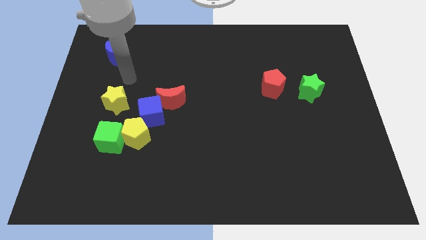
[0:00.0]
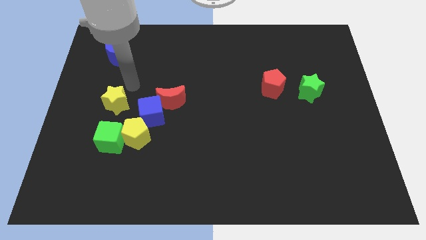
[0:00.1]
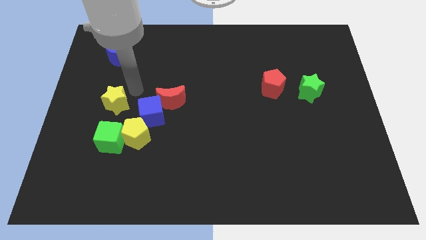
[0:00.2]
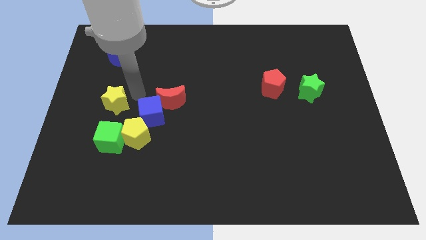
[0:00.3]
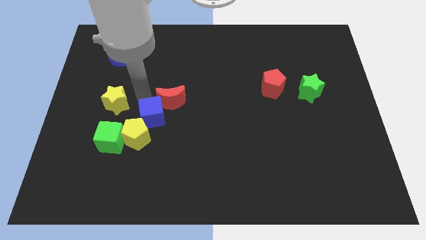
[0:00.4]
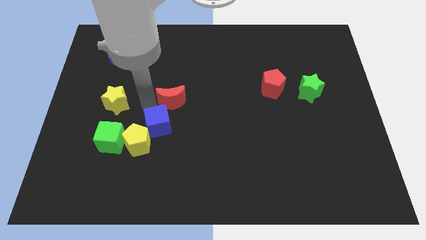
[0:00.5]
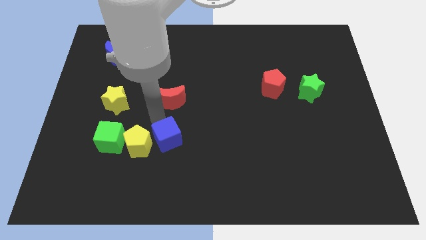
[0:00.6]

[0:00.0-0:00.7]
separate the red moon from the blue cube

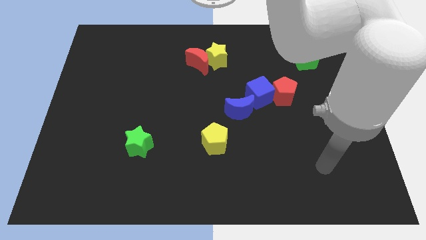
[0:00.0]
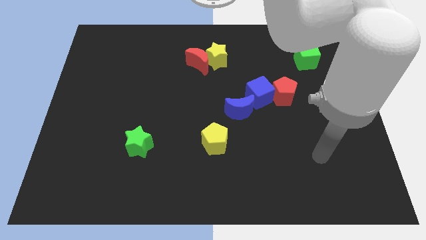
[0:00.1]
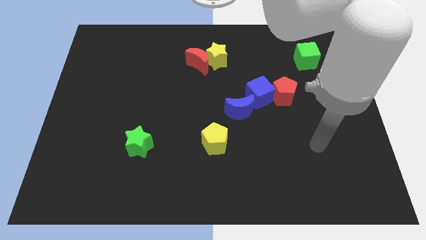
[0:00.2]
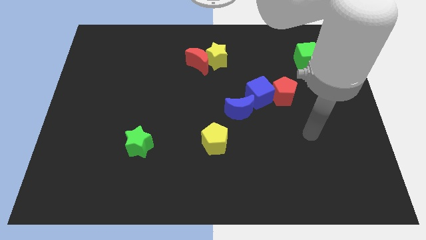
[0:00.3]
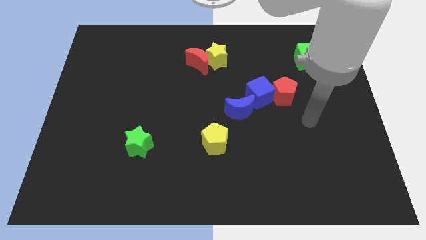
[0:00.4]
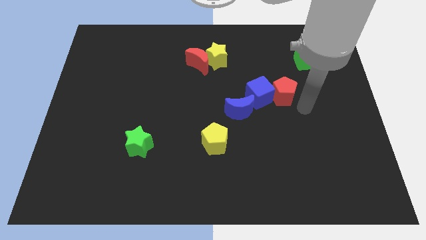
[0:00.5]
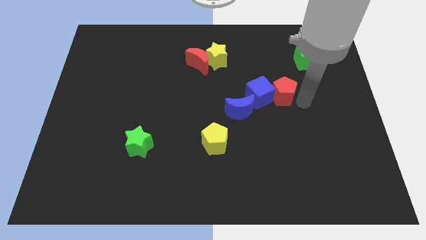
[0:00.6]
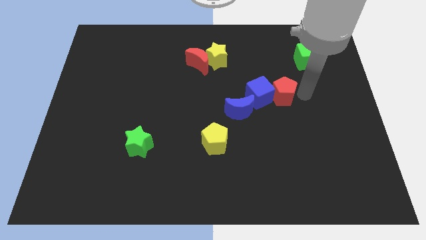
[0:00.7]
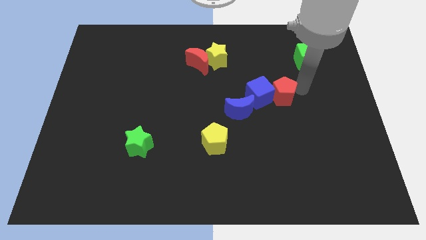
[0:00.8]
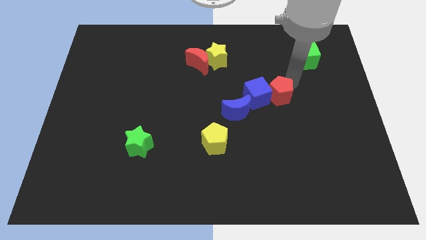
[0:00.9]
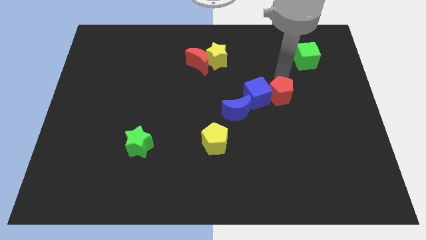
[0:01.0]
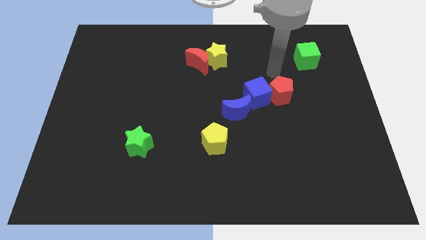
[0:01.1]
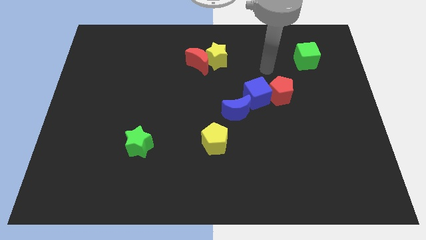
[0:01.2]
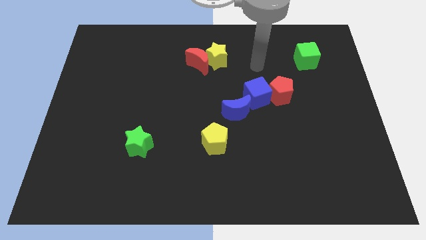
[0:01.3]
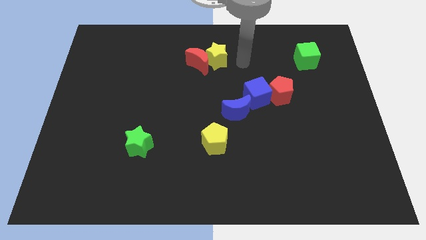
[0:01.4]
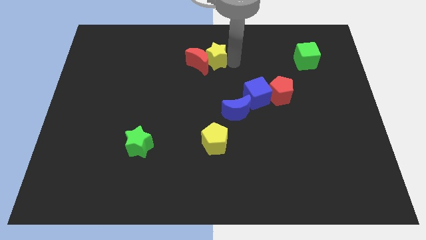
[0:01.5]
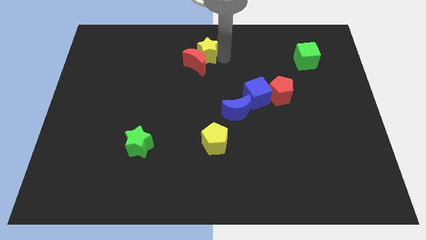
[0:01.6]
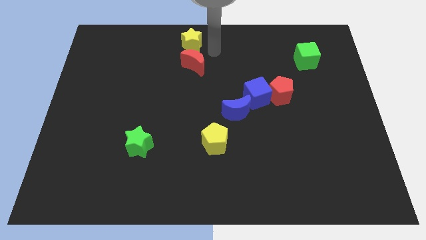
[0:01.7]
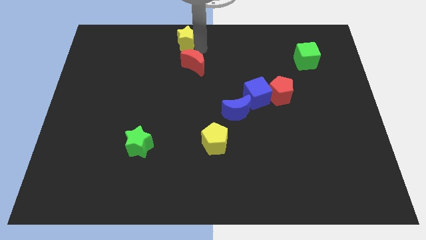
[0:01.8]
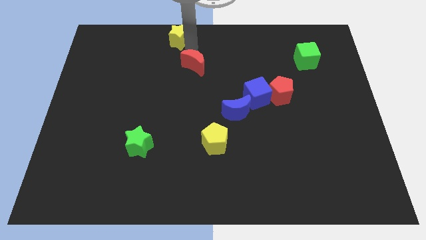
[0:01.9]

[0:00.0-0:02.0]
separate the red moon from the yellow star

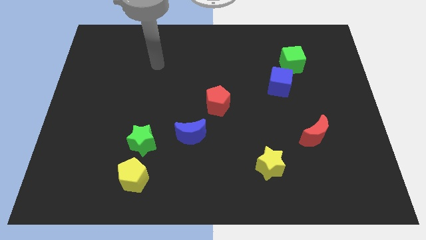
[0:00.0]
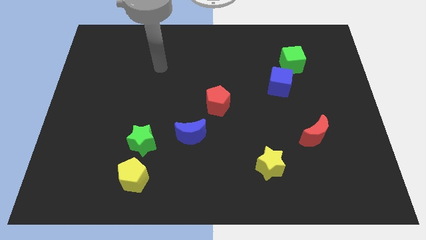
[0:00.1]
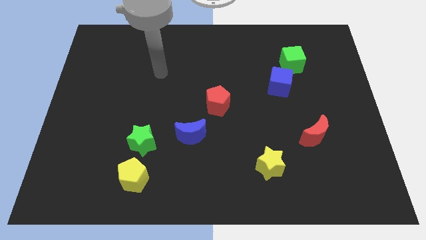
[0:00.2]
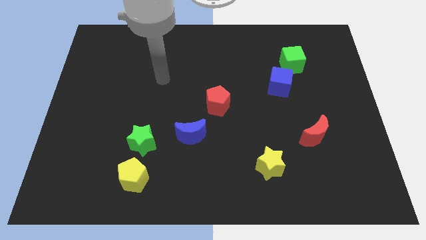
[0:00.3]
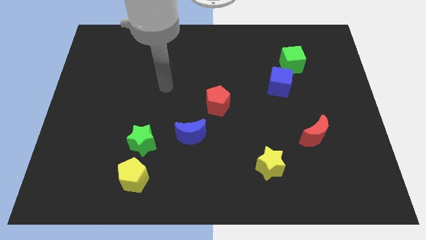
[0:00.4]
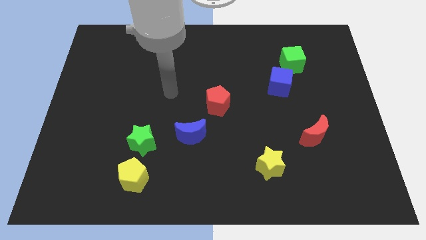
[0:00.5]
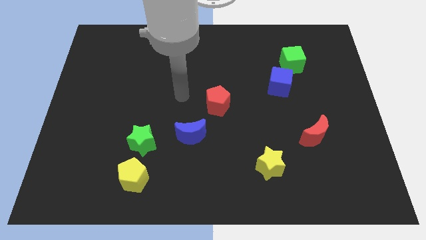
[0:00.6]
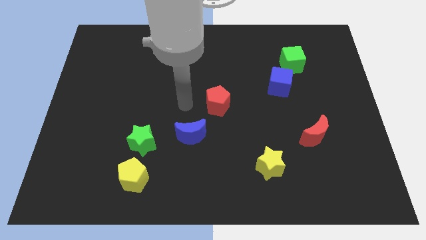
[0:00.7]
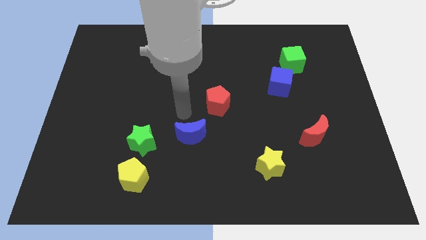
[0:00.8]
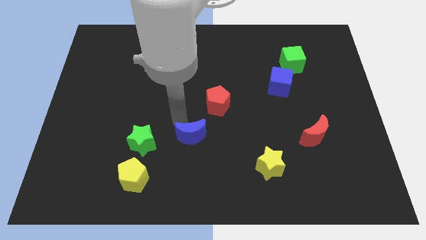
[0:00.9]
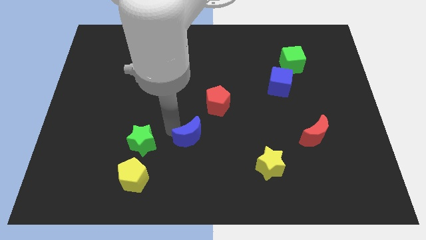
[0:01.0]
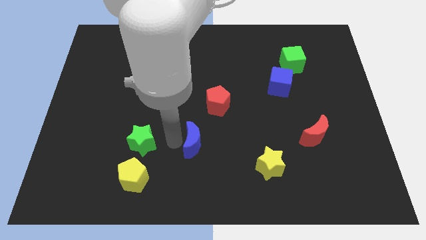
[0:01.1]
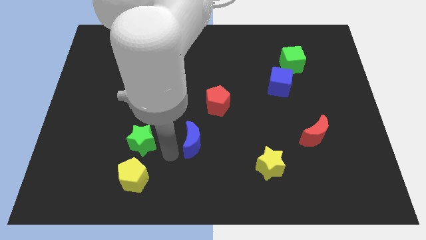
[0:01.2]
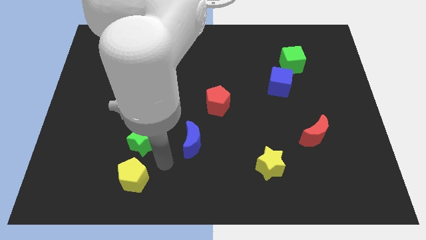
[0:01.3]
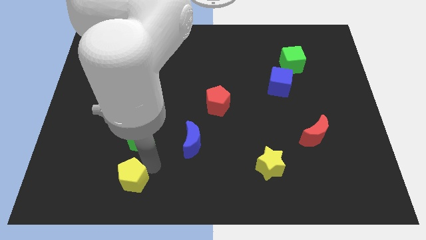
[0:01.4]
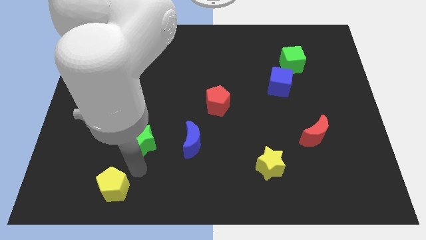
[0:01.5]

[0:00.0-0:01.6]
move the green star away from the yellow pentagon

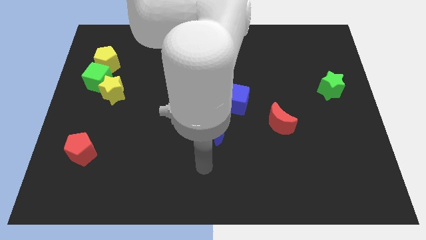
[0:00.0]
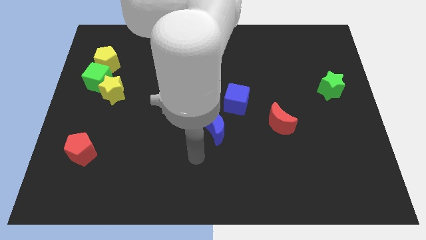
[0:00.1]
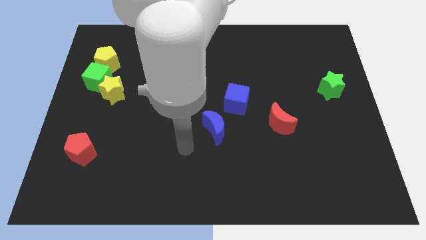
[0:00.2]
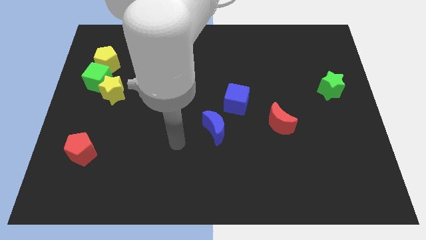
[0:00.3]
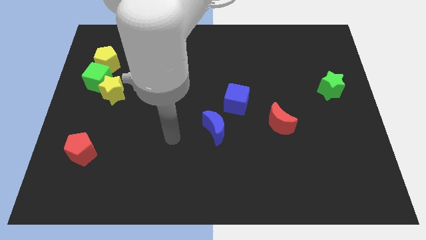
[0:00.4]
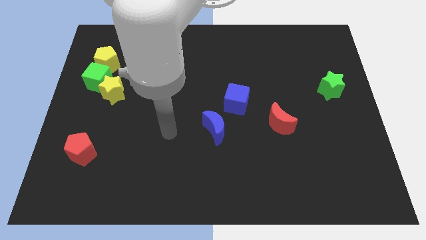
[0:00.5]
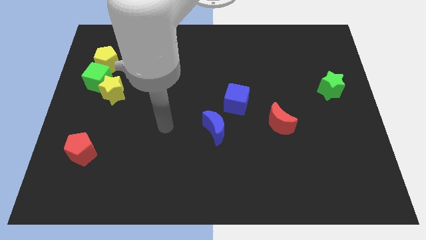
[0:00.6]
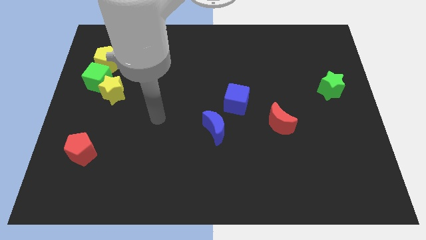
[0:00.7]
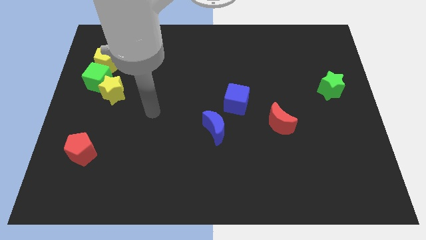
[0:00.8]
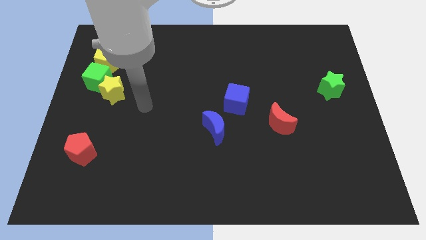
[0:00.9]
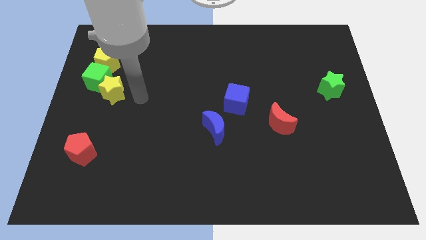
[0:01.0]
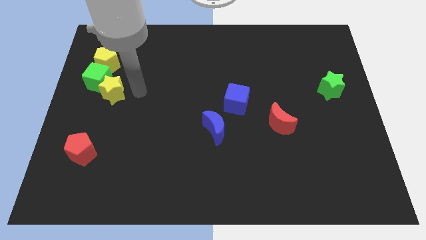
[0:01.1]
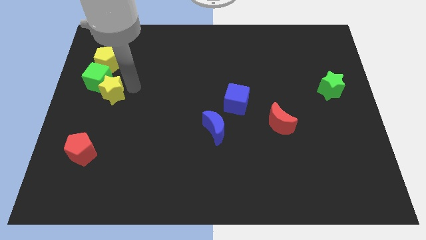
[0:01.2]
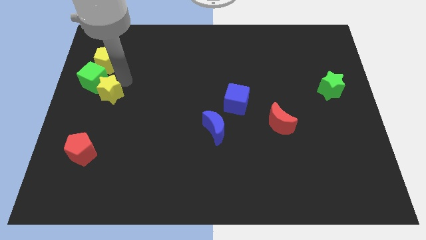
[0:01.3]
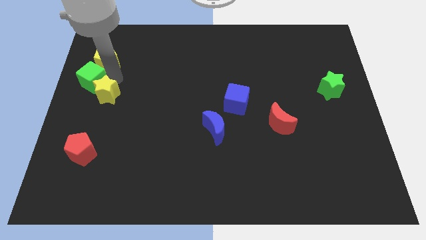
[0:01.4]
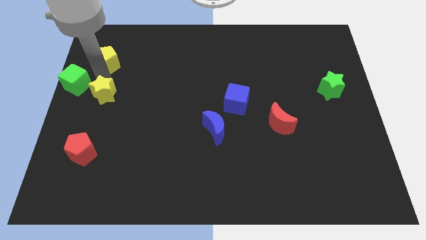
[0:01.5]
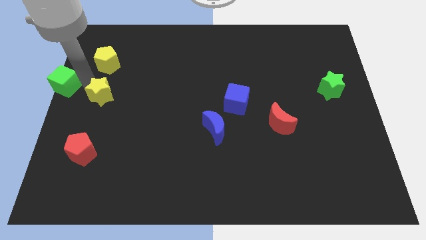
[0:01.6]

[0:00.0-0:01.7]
pull the yellow star apart from the green cube

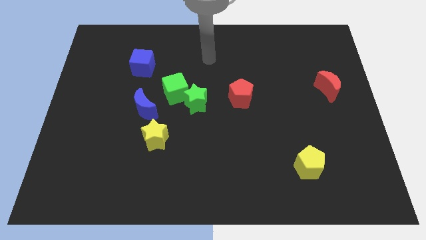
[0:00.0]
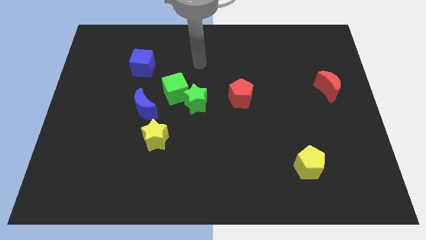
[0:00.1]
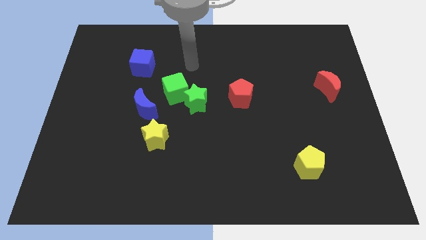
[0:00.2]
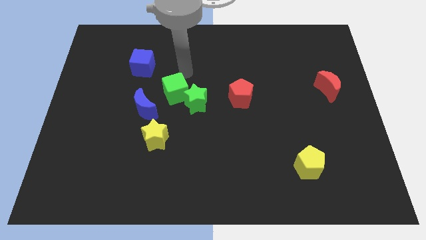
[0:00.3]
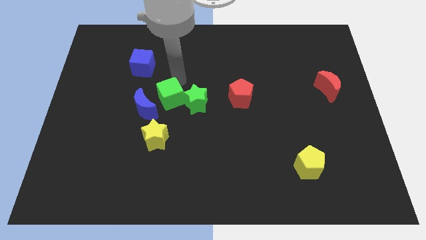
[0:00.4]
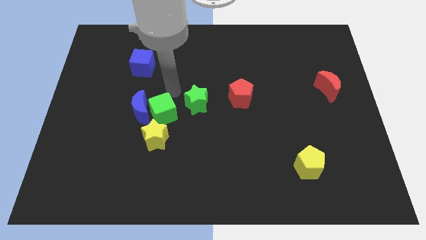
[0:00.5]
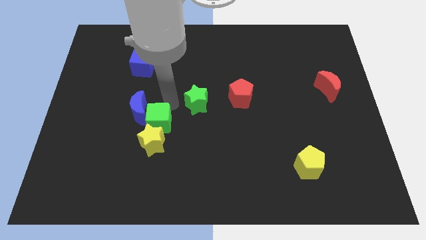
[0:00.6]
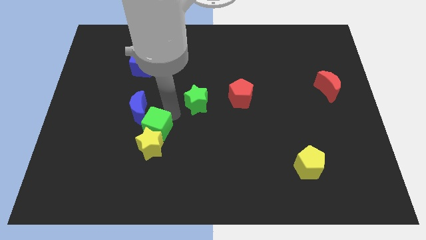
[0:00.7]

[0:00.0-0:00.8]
move the green star away from the green cube

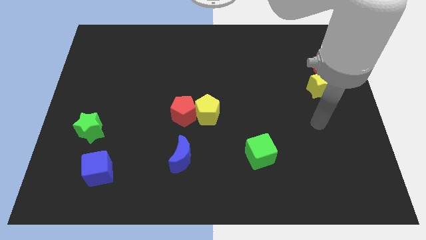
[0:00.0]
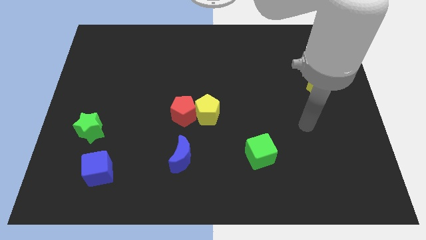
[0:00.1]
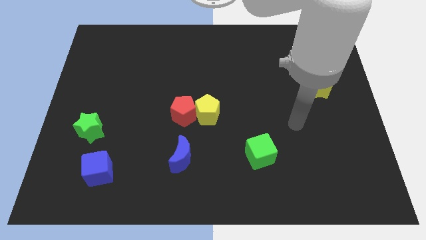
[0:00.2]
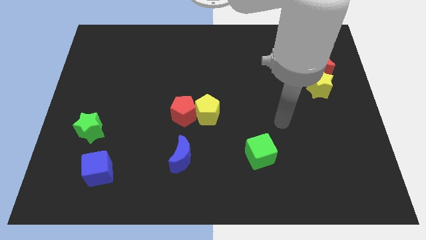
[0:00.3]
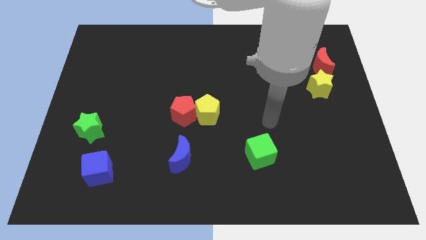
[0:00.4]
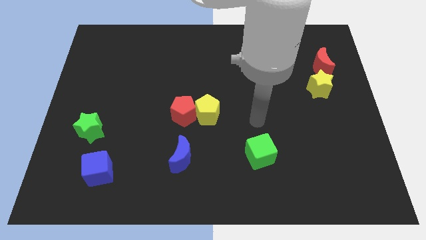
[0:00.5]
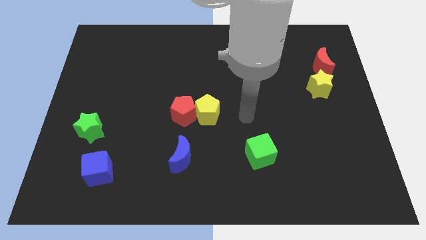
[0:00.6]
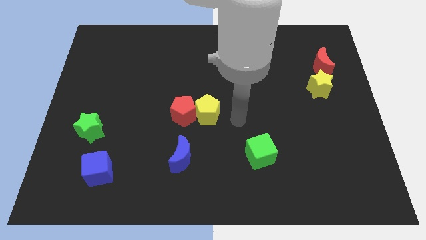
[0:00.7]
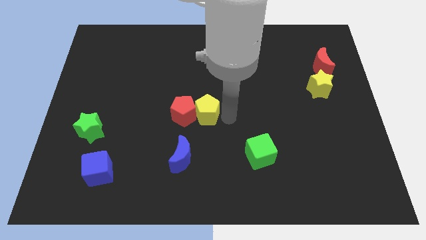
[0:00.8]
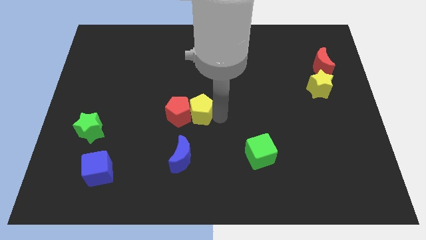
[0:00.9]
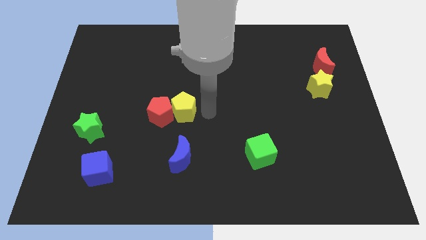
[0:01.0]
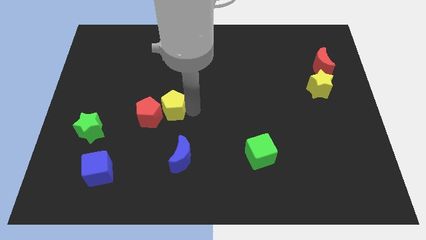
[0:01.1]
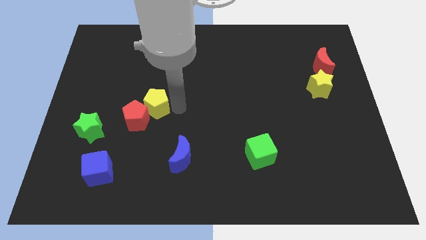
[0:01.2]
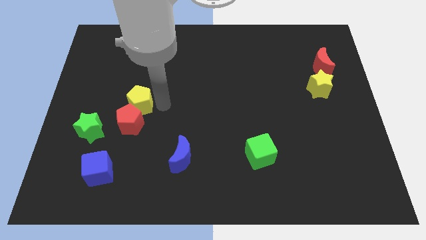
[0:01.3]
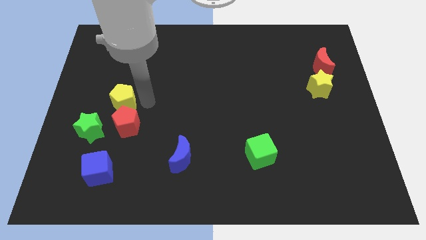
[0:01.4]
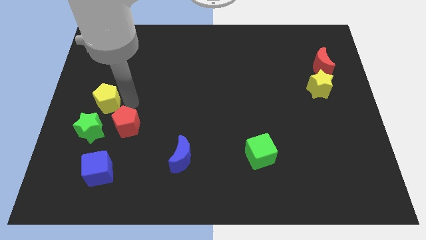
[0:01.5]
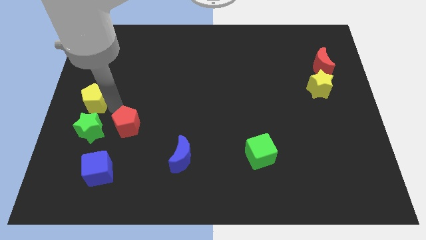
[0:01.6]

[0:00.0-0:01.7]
pull the red pentagon apart from the yellow pentagon

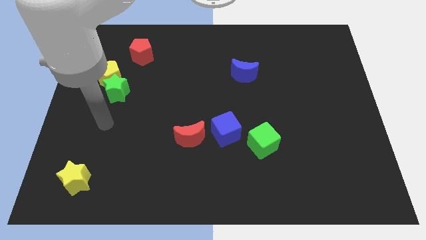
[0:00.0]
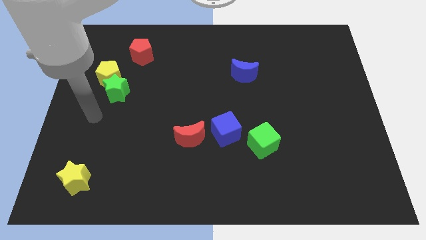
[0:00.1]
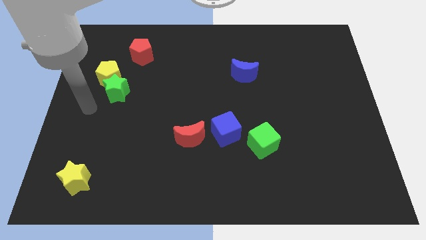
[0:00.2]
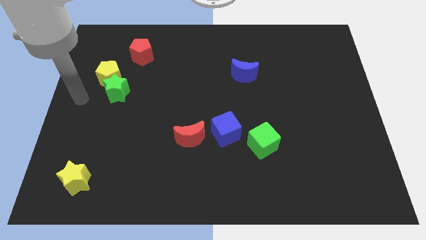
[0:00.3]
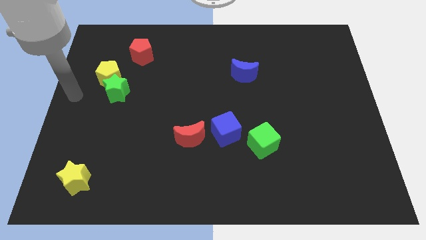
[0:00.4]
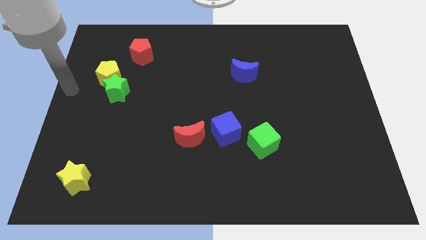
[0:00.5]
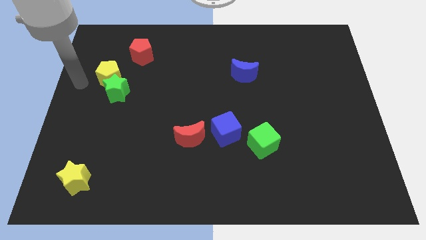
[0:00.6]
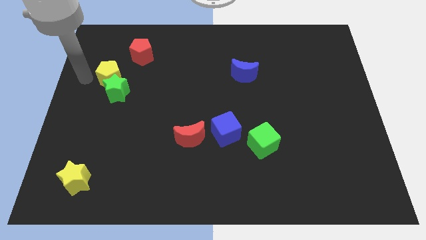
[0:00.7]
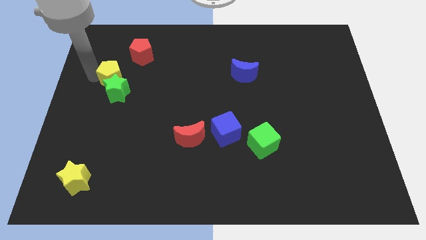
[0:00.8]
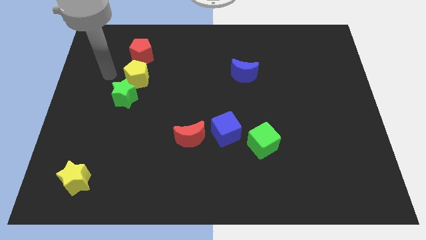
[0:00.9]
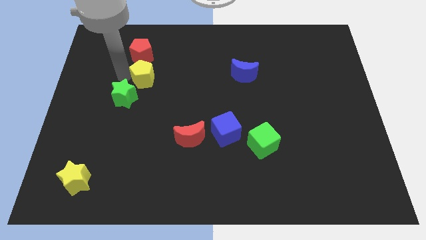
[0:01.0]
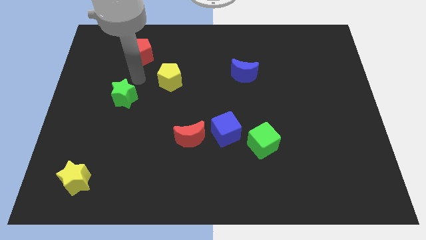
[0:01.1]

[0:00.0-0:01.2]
separate the green star from the yellow pentagon
